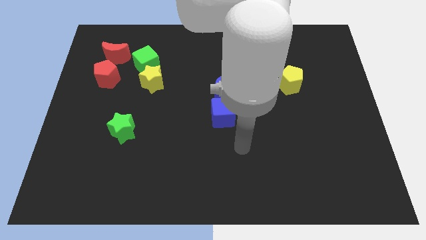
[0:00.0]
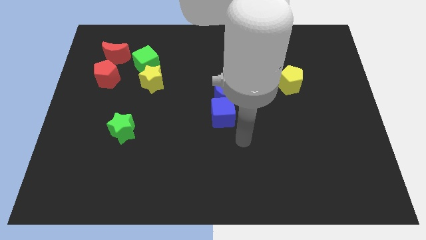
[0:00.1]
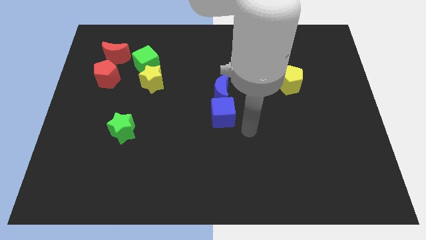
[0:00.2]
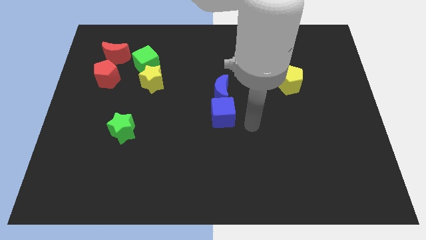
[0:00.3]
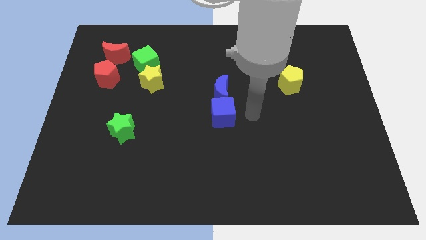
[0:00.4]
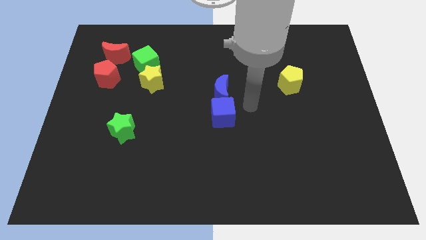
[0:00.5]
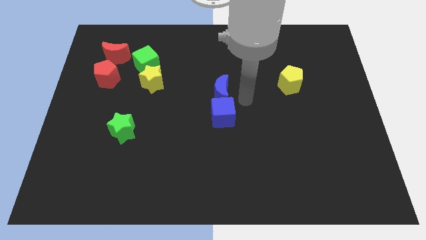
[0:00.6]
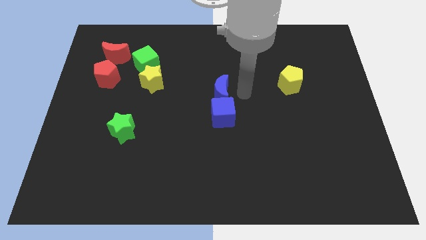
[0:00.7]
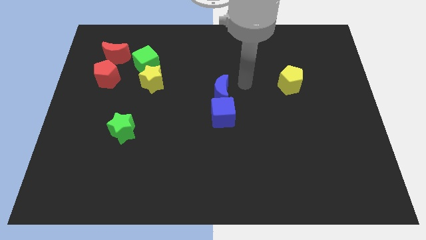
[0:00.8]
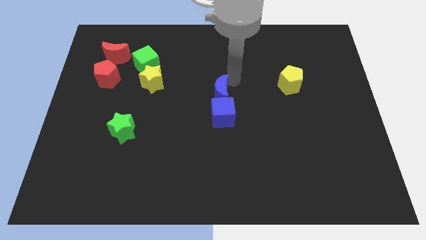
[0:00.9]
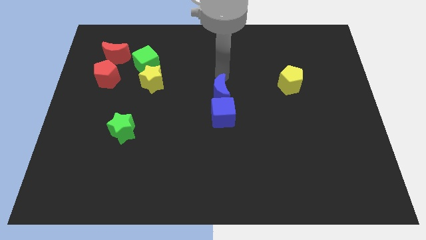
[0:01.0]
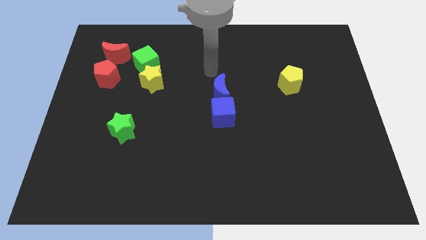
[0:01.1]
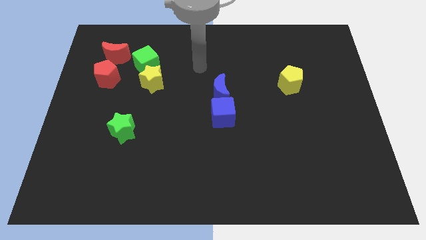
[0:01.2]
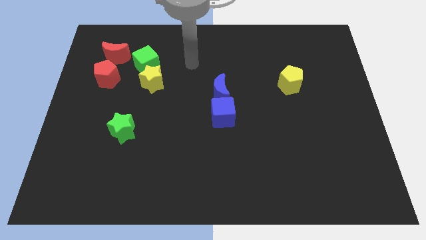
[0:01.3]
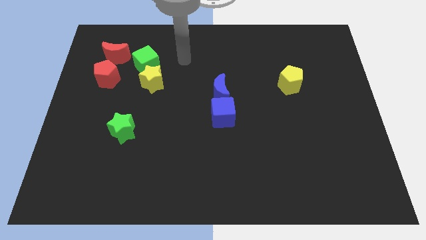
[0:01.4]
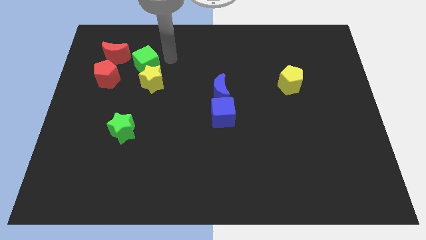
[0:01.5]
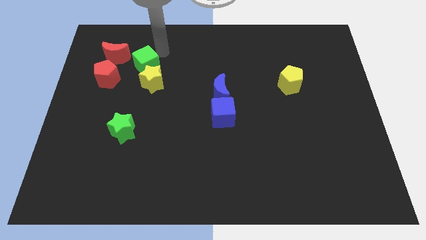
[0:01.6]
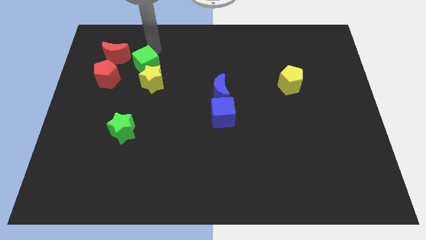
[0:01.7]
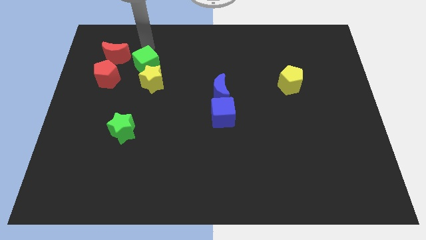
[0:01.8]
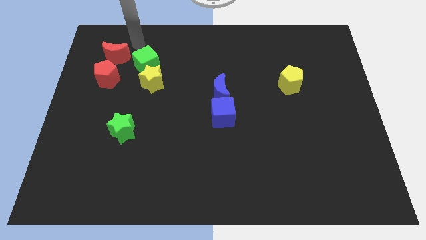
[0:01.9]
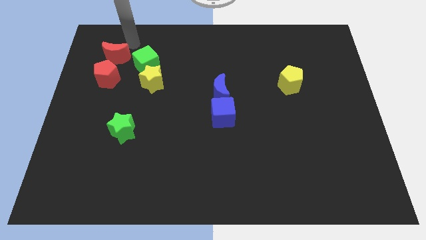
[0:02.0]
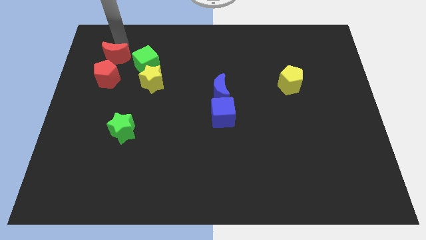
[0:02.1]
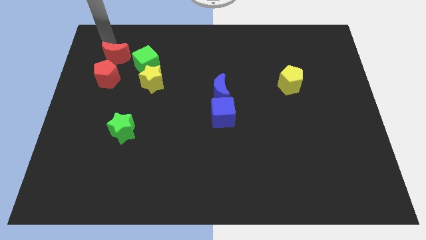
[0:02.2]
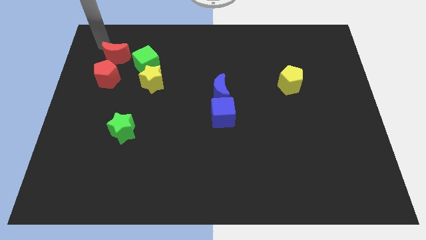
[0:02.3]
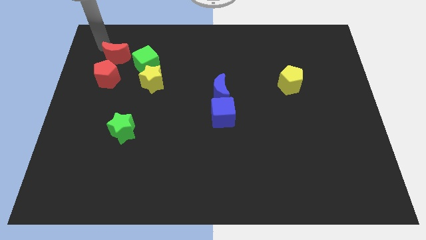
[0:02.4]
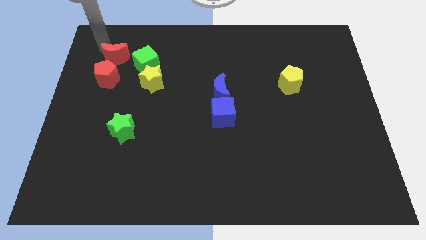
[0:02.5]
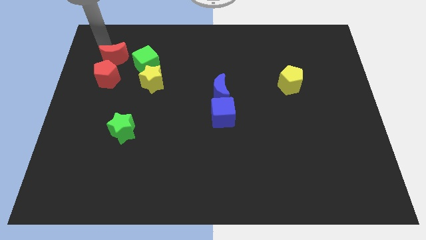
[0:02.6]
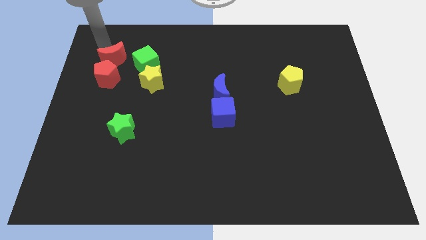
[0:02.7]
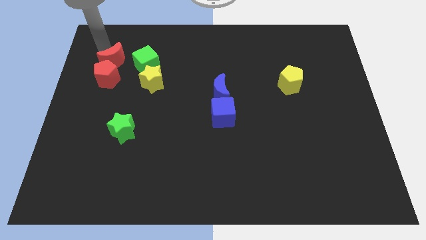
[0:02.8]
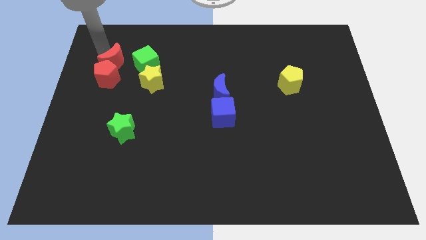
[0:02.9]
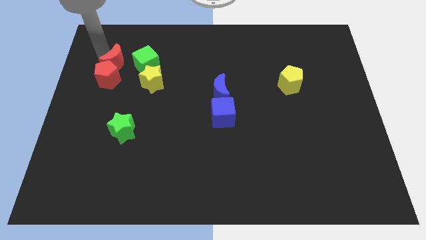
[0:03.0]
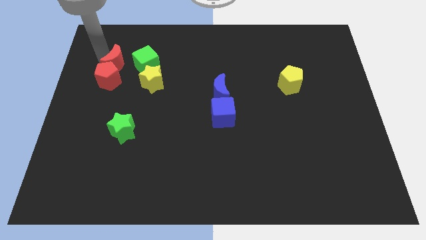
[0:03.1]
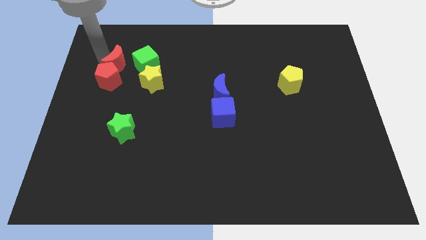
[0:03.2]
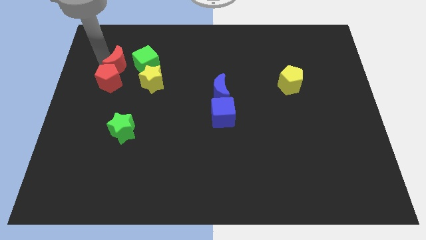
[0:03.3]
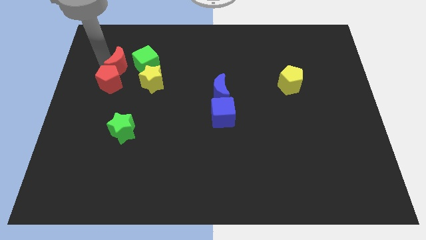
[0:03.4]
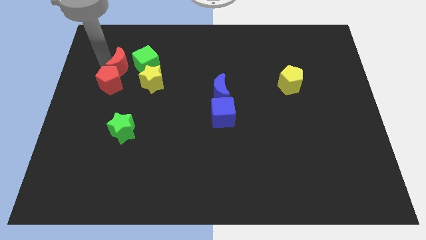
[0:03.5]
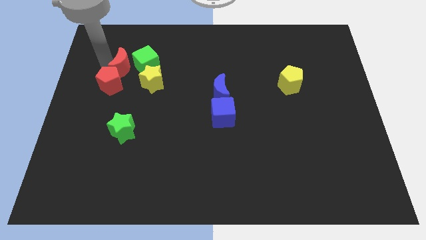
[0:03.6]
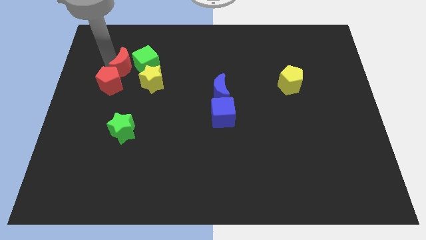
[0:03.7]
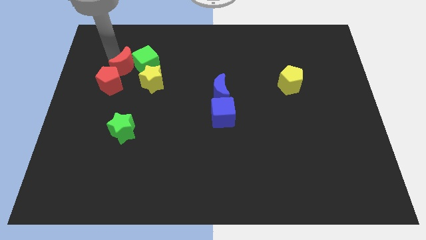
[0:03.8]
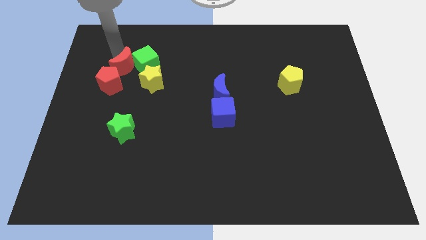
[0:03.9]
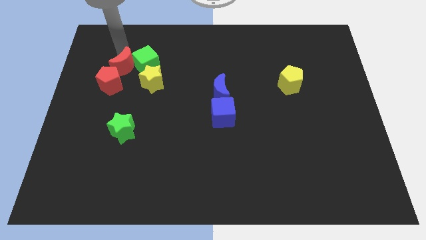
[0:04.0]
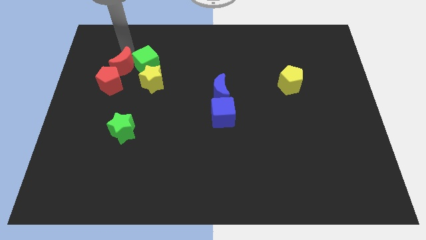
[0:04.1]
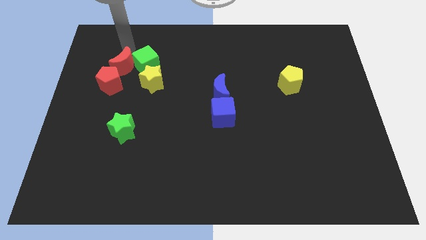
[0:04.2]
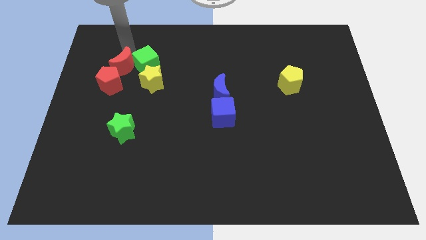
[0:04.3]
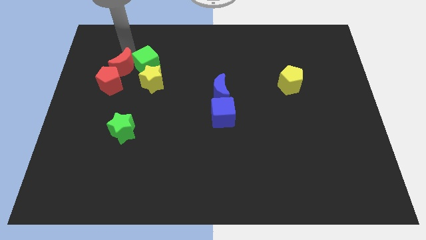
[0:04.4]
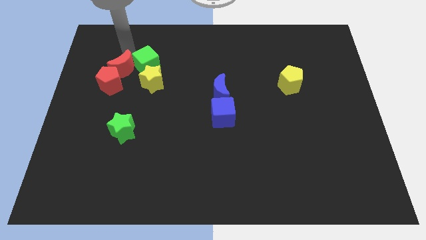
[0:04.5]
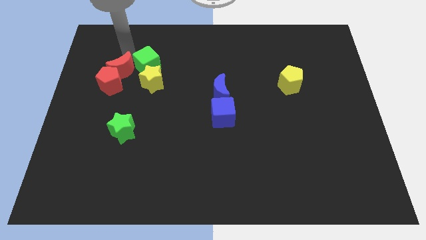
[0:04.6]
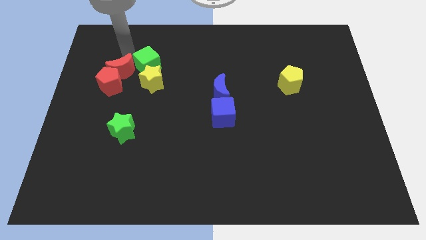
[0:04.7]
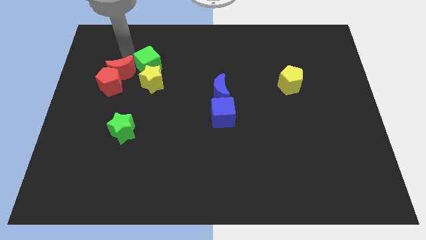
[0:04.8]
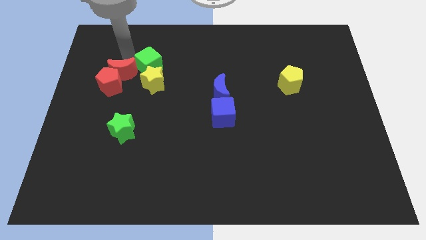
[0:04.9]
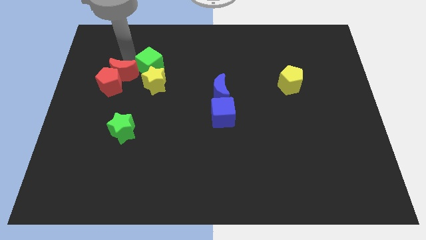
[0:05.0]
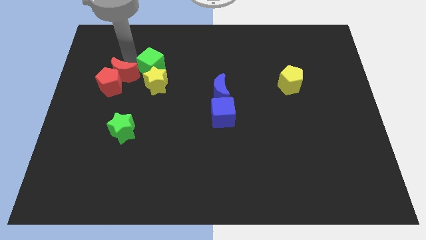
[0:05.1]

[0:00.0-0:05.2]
move the red moon down and then right somewhat

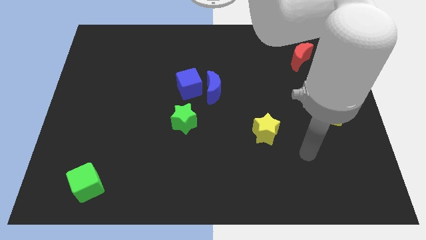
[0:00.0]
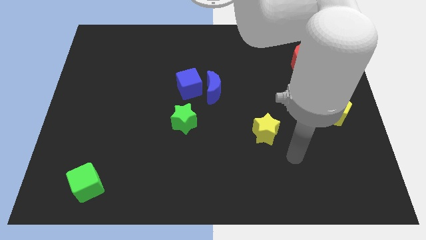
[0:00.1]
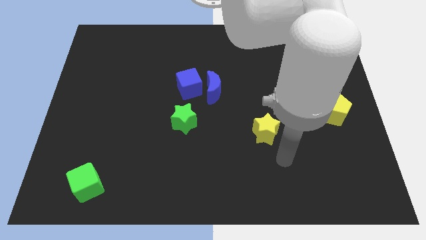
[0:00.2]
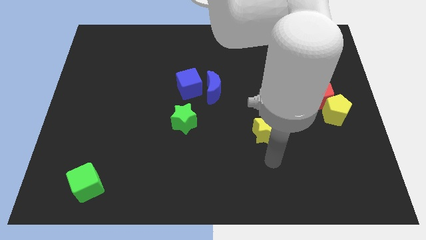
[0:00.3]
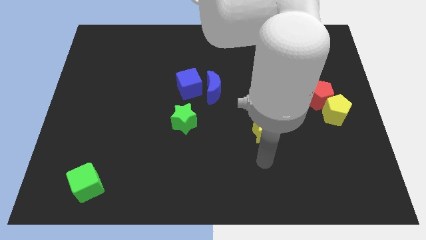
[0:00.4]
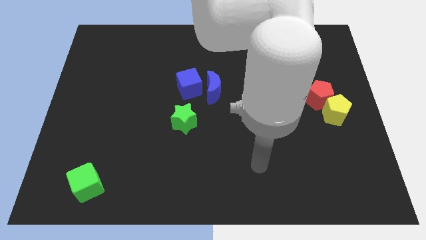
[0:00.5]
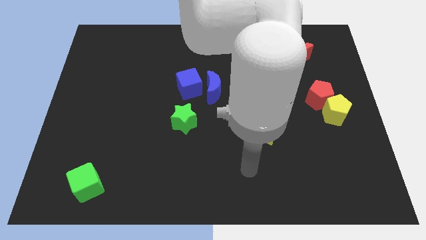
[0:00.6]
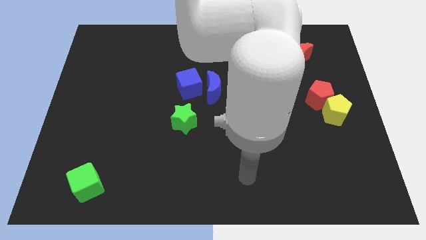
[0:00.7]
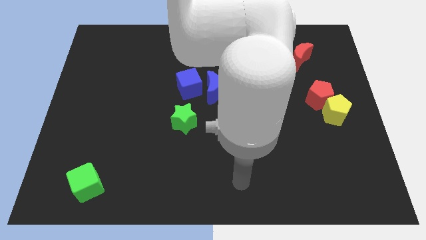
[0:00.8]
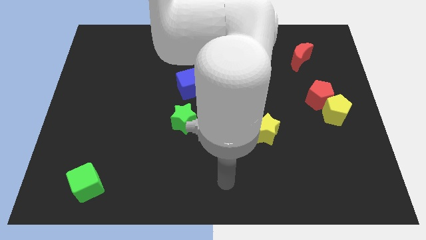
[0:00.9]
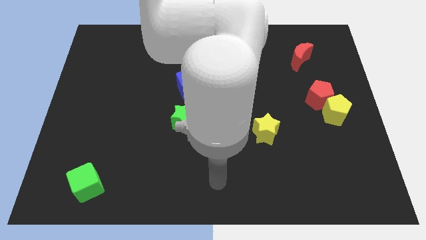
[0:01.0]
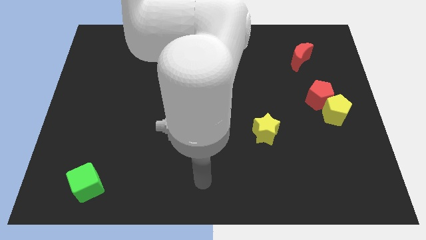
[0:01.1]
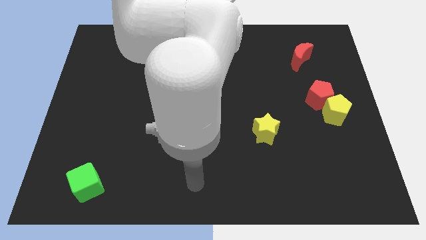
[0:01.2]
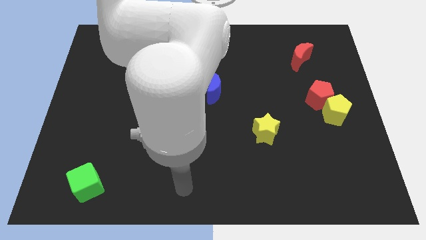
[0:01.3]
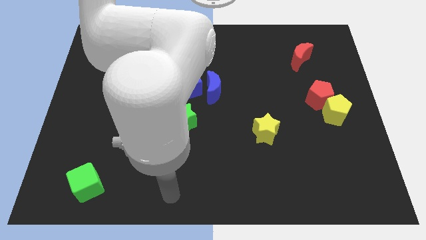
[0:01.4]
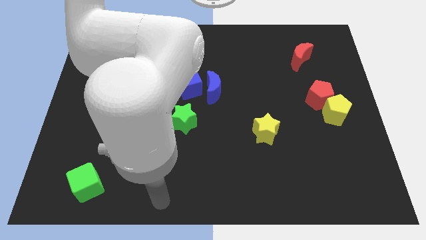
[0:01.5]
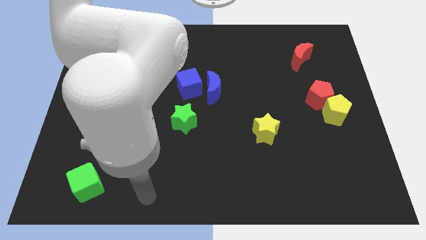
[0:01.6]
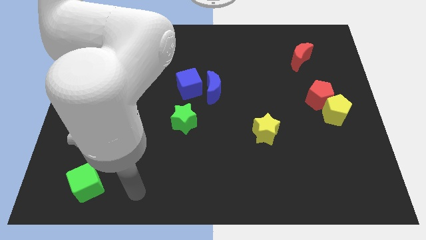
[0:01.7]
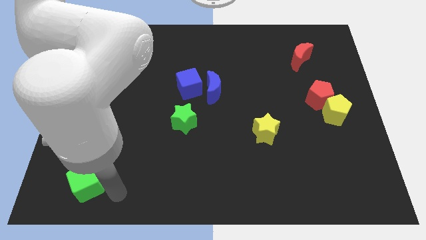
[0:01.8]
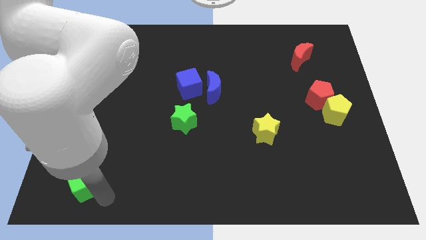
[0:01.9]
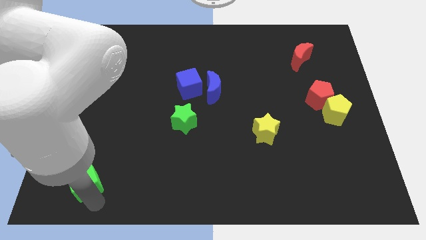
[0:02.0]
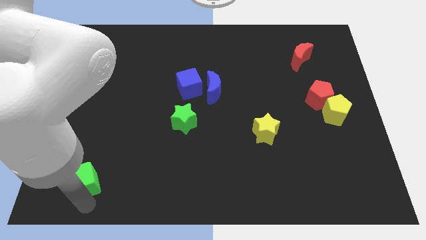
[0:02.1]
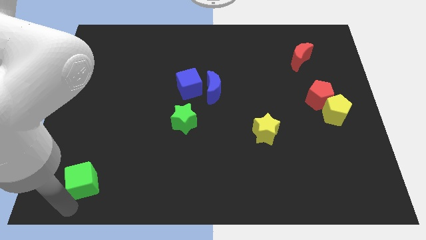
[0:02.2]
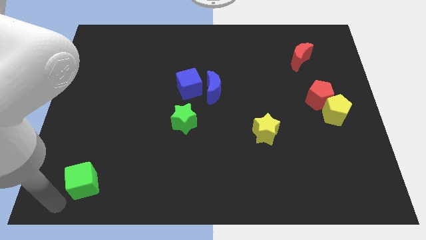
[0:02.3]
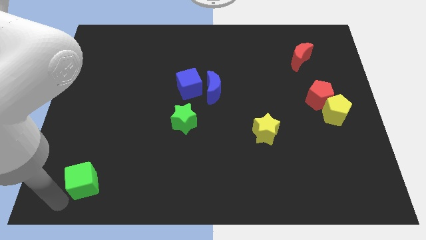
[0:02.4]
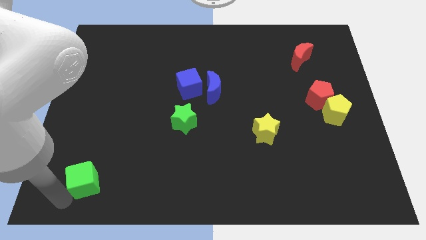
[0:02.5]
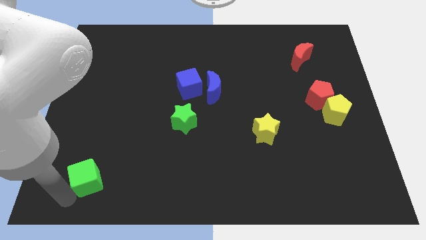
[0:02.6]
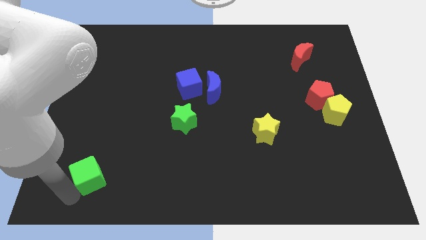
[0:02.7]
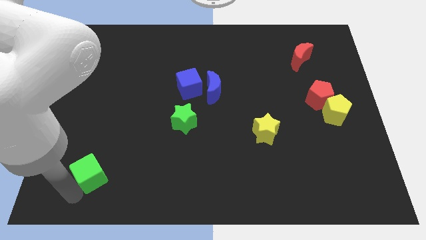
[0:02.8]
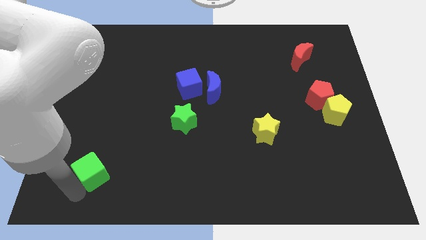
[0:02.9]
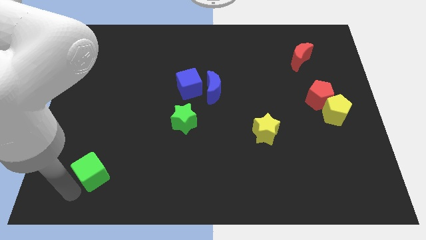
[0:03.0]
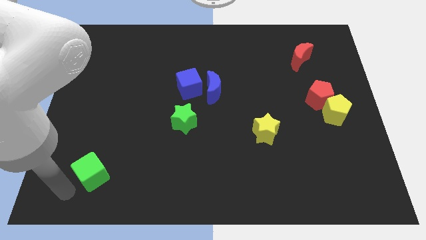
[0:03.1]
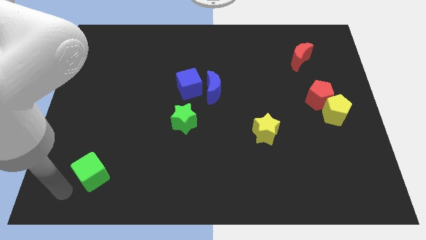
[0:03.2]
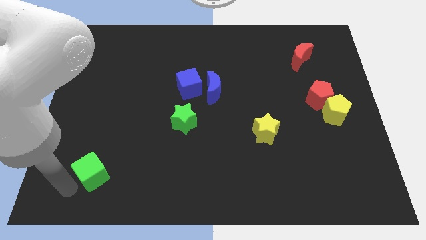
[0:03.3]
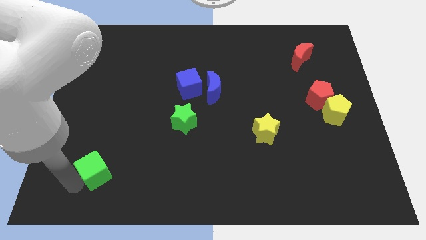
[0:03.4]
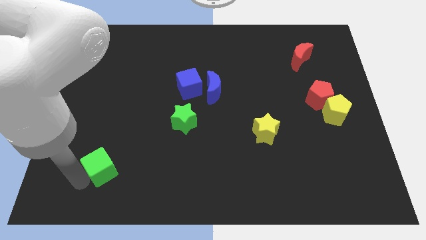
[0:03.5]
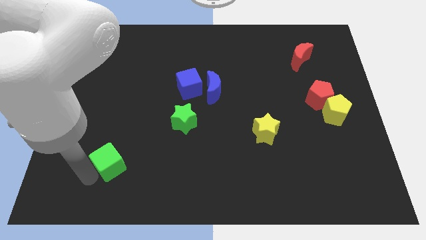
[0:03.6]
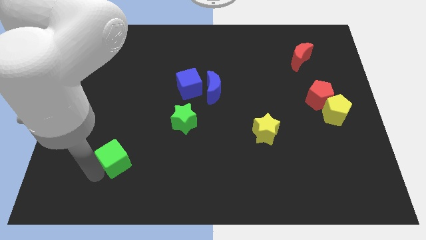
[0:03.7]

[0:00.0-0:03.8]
slightly move the green cube upwards and right
